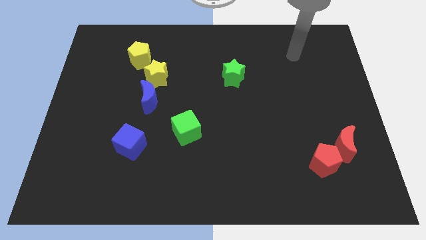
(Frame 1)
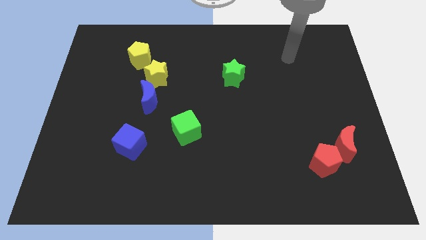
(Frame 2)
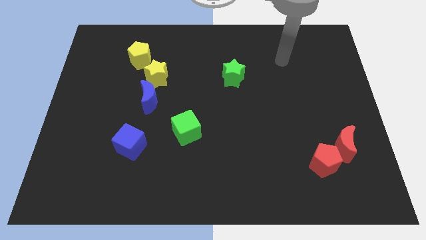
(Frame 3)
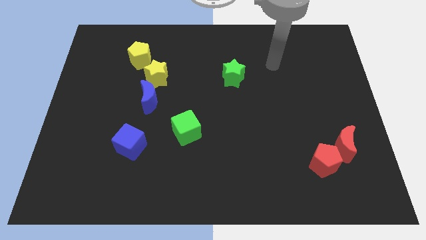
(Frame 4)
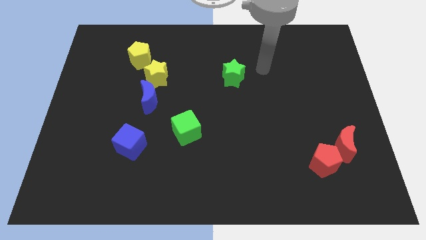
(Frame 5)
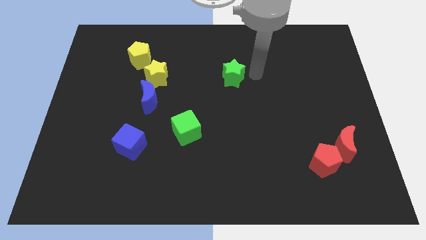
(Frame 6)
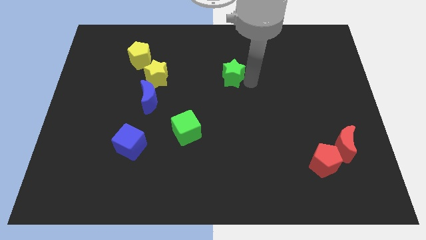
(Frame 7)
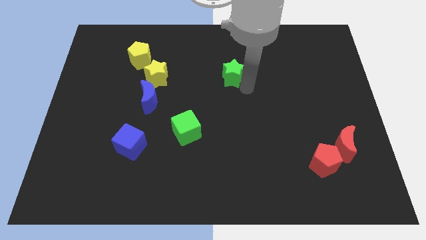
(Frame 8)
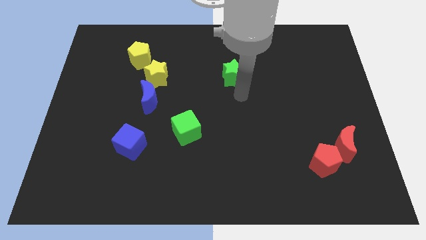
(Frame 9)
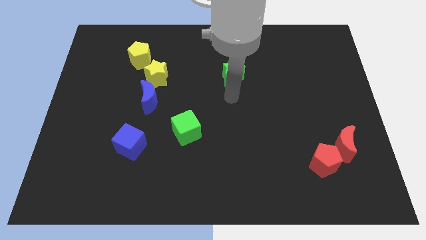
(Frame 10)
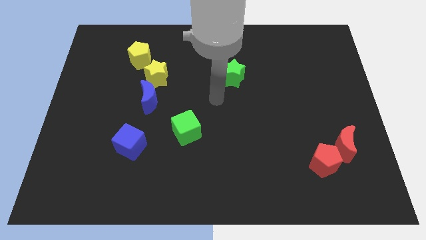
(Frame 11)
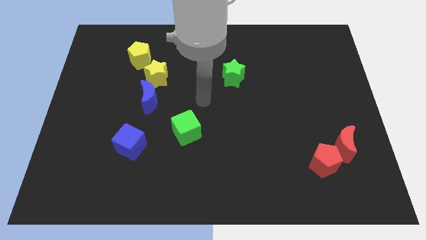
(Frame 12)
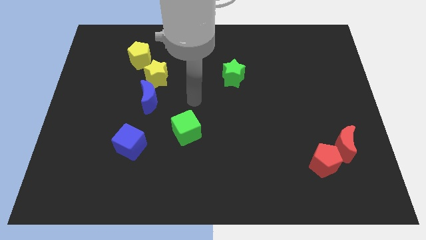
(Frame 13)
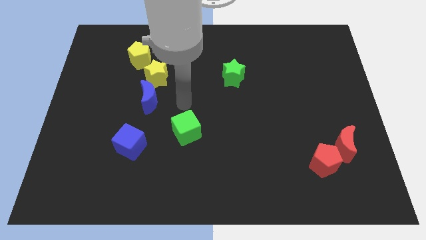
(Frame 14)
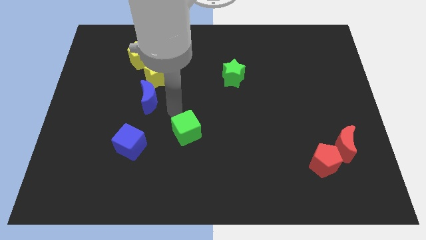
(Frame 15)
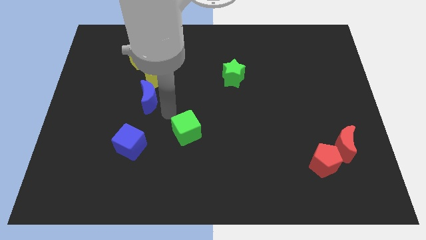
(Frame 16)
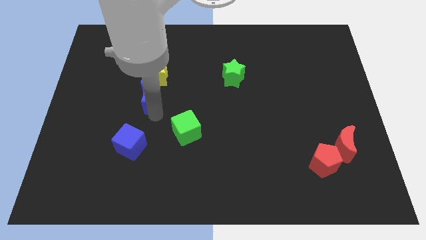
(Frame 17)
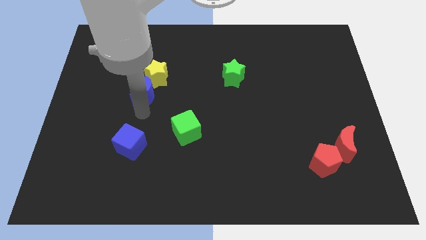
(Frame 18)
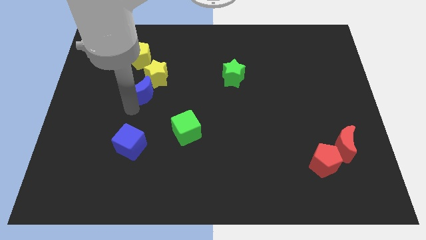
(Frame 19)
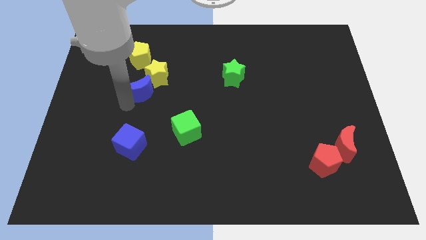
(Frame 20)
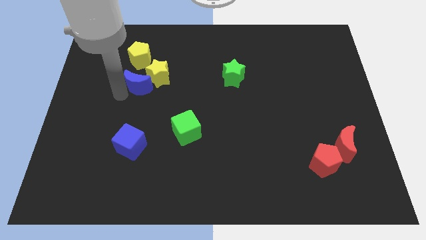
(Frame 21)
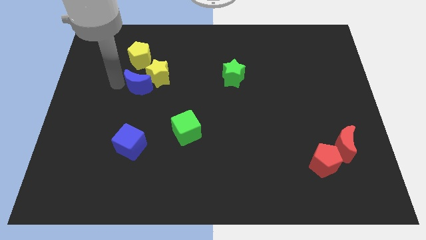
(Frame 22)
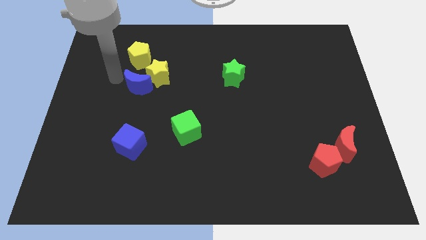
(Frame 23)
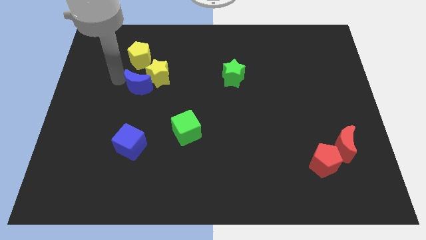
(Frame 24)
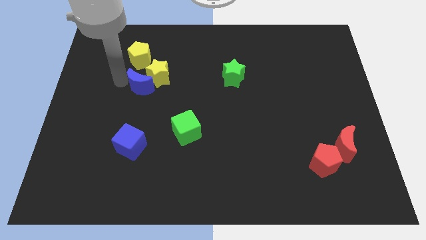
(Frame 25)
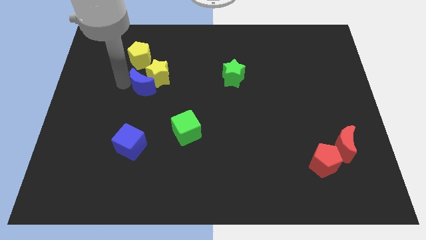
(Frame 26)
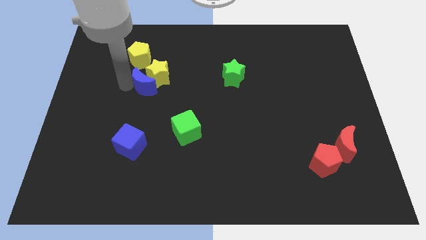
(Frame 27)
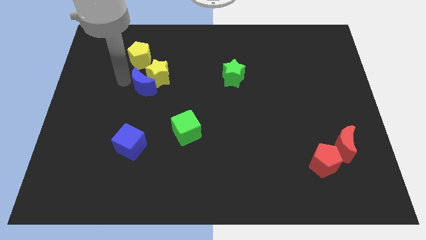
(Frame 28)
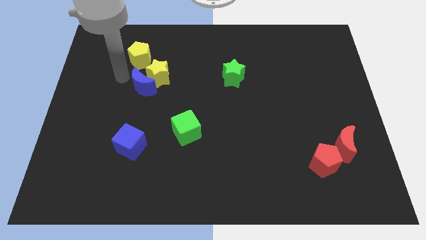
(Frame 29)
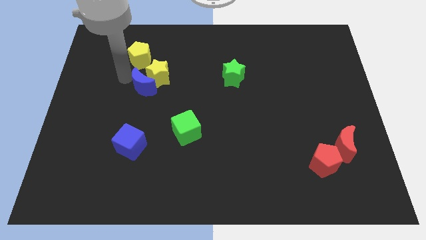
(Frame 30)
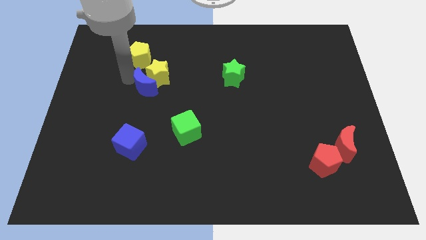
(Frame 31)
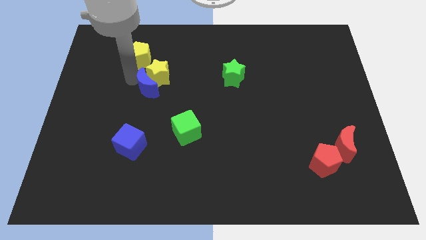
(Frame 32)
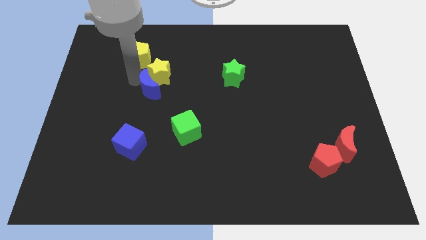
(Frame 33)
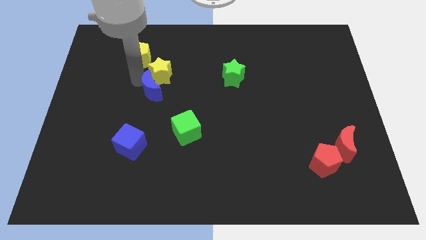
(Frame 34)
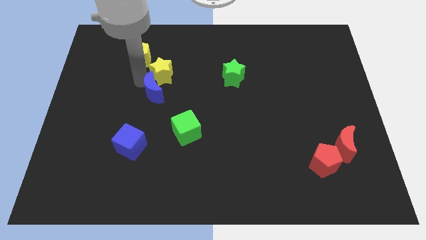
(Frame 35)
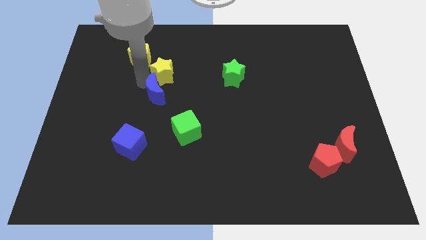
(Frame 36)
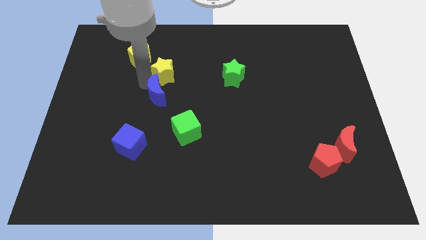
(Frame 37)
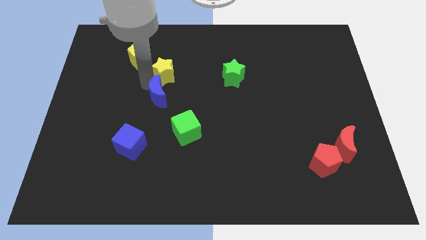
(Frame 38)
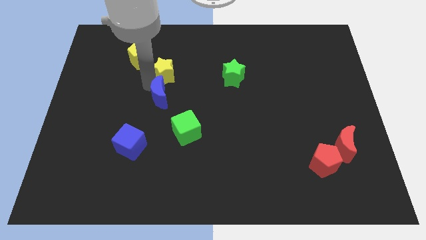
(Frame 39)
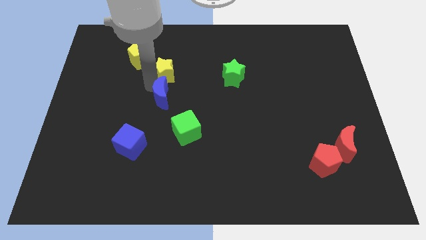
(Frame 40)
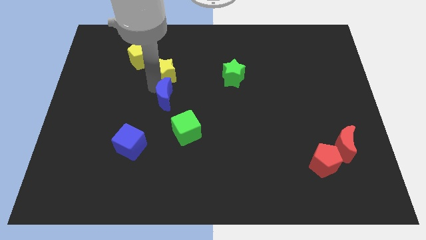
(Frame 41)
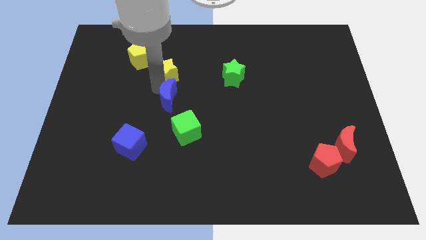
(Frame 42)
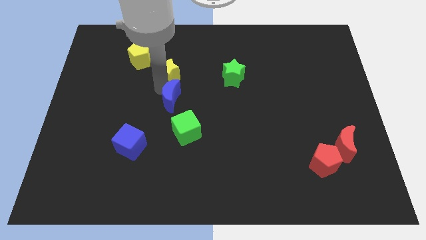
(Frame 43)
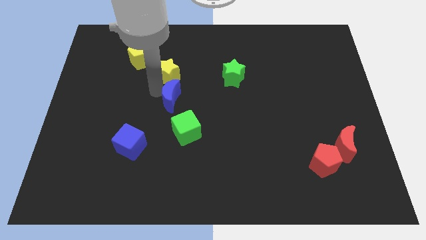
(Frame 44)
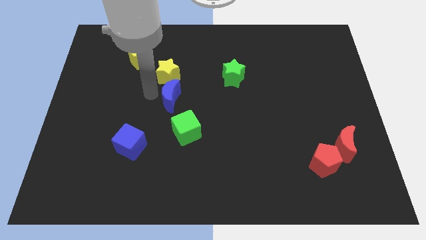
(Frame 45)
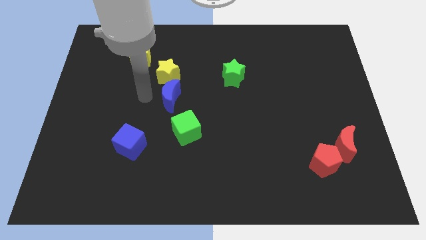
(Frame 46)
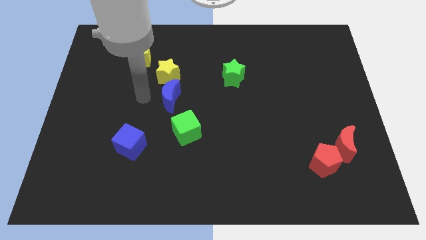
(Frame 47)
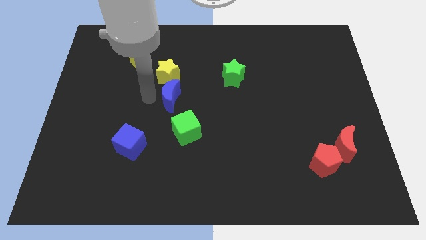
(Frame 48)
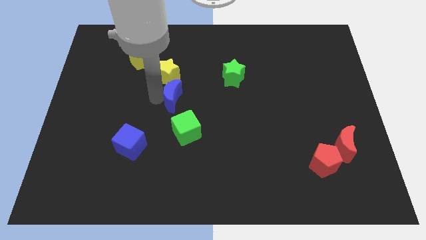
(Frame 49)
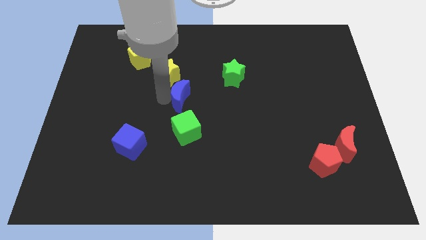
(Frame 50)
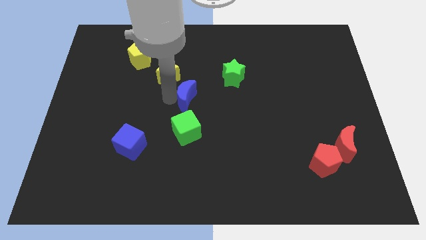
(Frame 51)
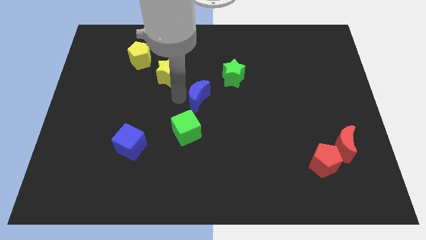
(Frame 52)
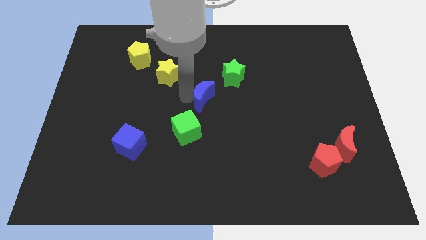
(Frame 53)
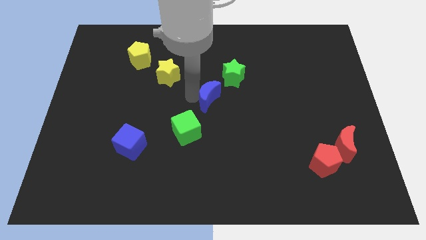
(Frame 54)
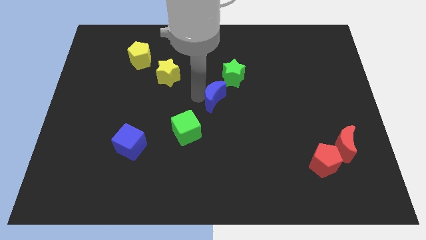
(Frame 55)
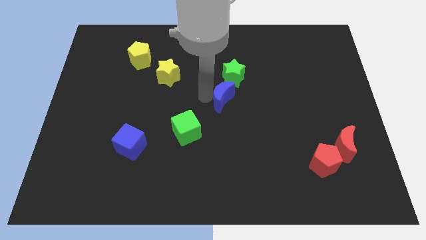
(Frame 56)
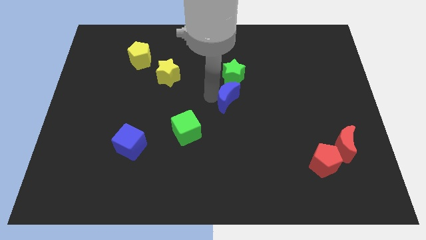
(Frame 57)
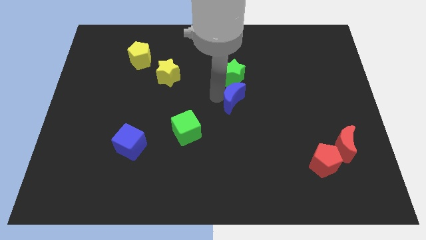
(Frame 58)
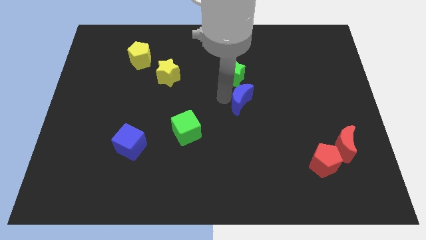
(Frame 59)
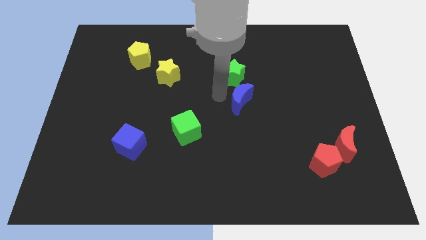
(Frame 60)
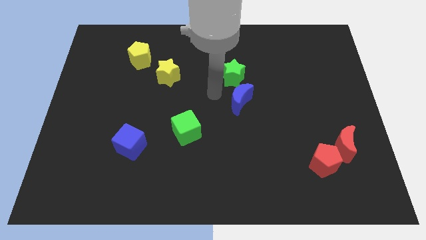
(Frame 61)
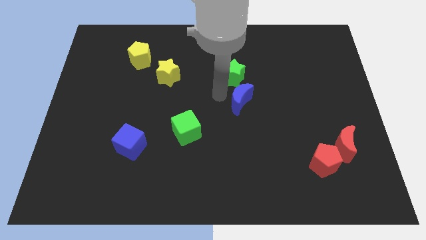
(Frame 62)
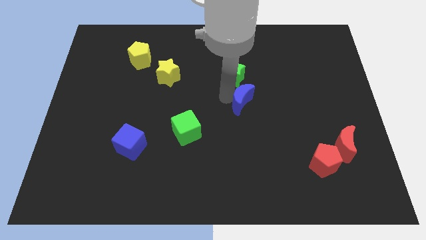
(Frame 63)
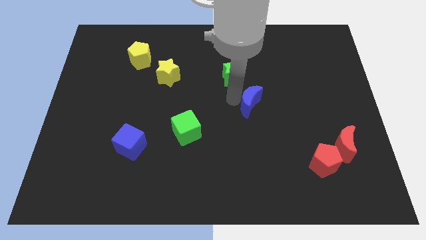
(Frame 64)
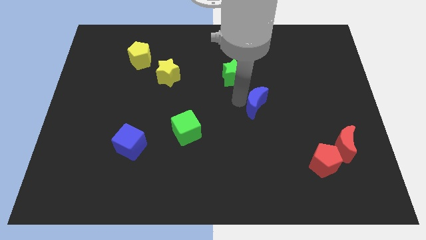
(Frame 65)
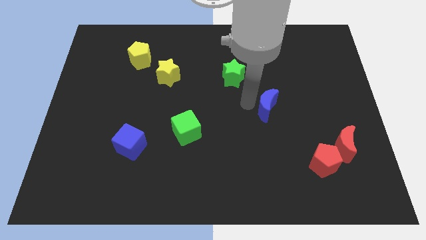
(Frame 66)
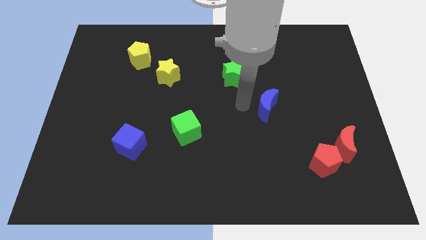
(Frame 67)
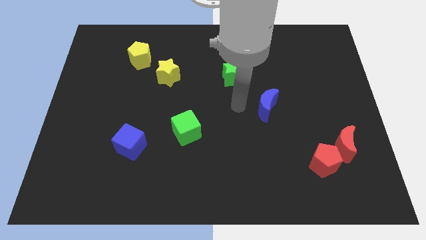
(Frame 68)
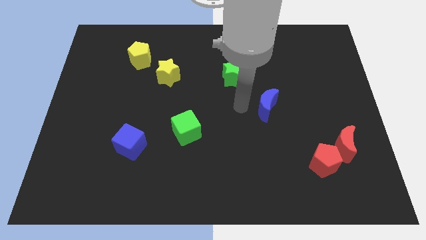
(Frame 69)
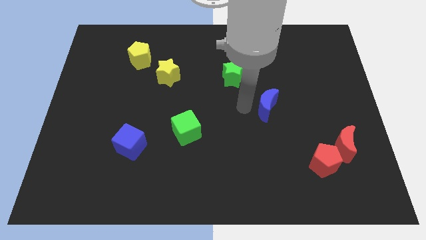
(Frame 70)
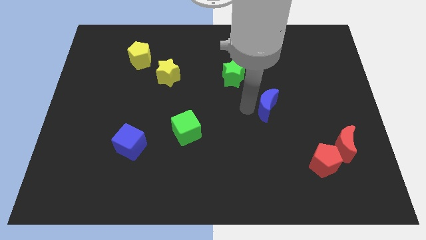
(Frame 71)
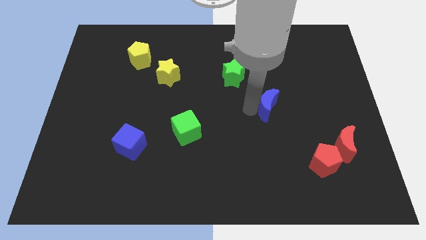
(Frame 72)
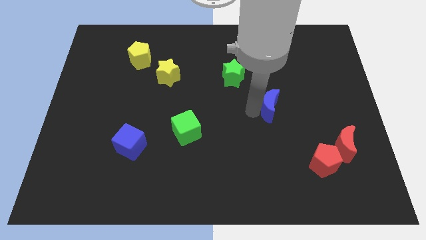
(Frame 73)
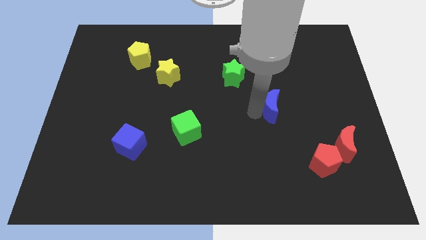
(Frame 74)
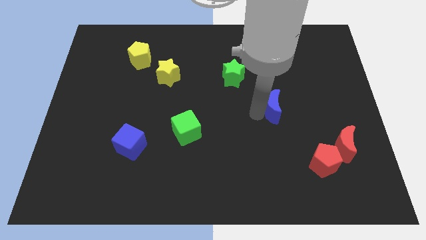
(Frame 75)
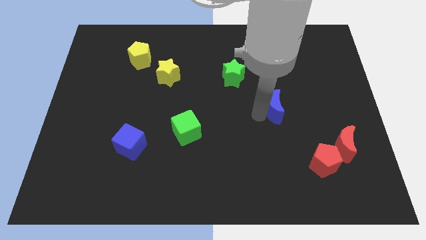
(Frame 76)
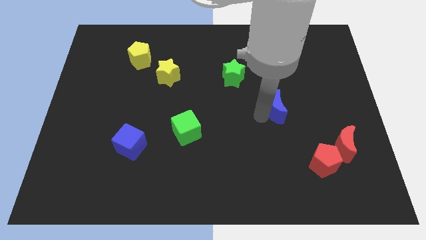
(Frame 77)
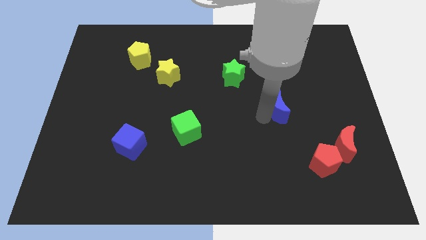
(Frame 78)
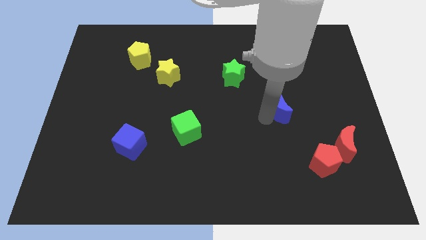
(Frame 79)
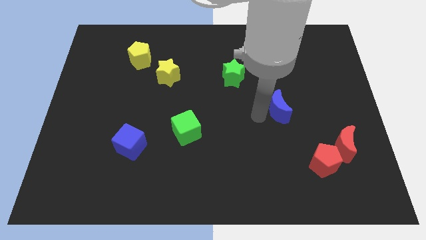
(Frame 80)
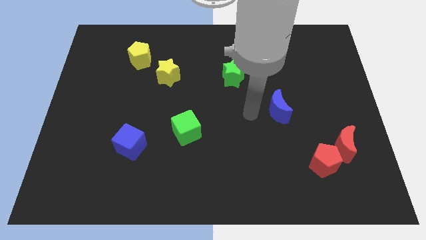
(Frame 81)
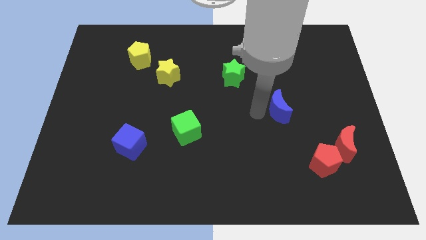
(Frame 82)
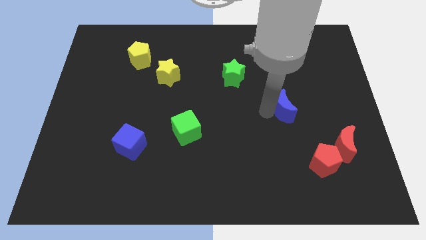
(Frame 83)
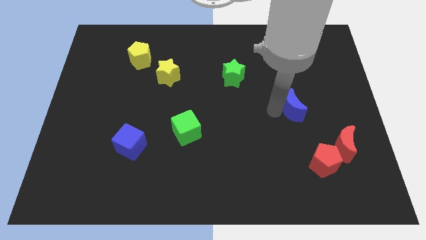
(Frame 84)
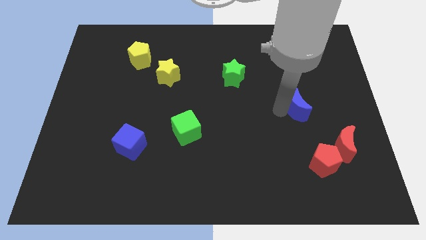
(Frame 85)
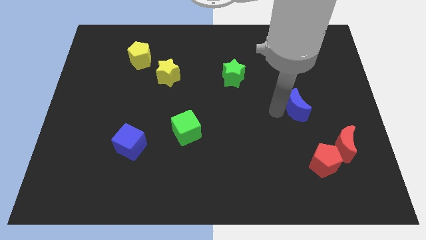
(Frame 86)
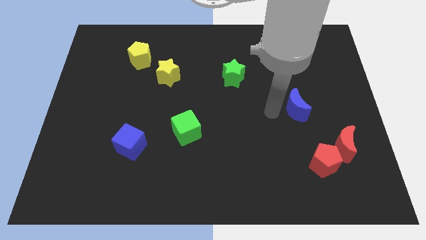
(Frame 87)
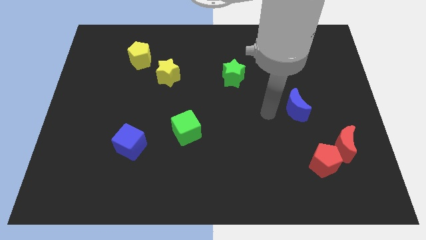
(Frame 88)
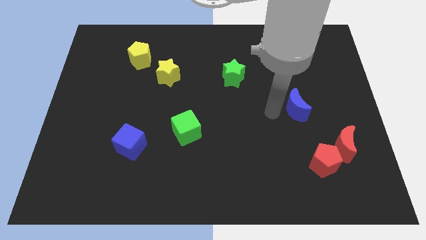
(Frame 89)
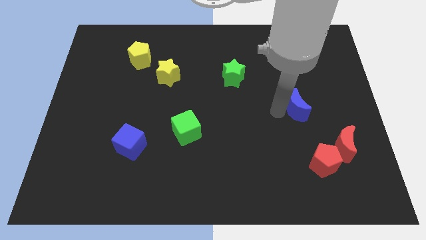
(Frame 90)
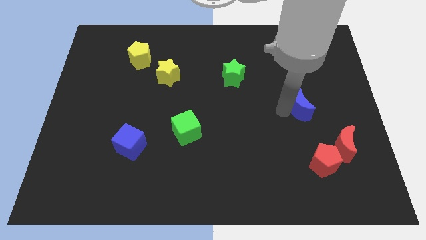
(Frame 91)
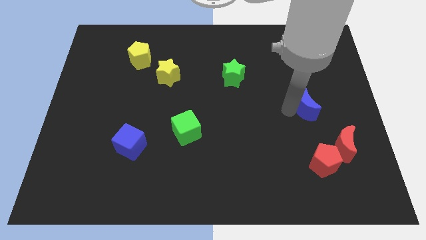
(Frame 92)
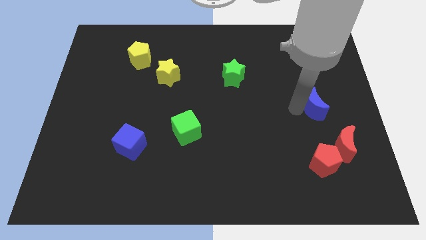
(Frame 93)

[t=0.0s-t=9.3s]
slide the blue moon above the red moon
